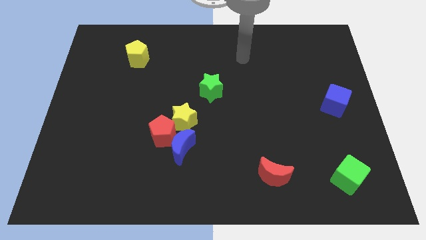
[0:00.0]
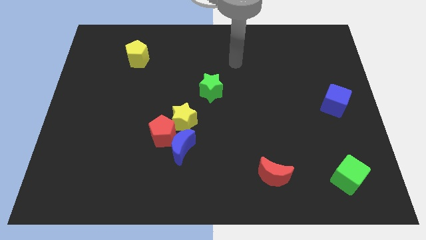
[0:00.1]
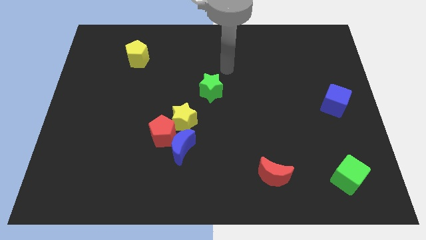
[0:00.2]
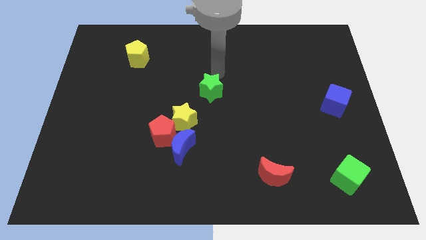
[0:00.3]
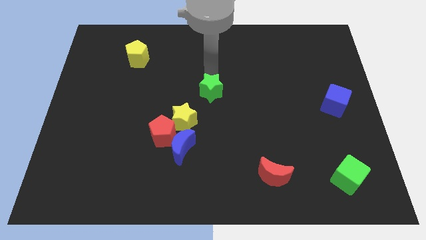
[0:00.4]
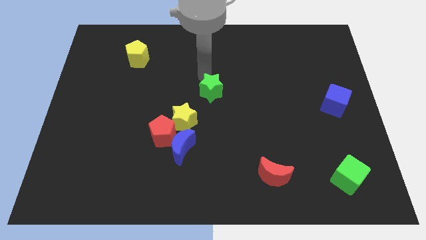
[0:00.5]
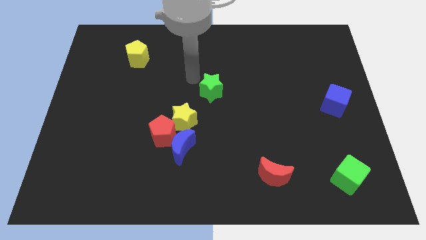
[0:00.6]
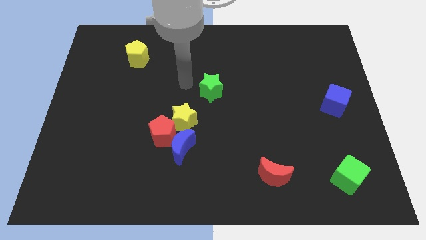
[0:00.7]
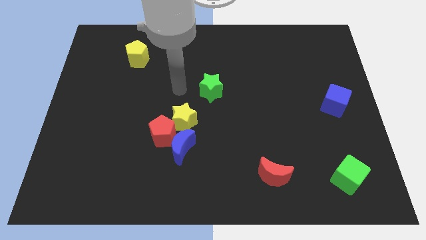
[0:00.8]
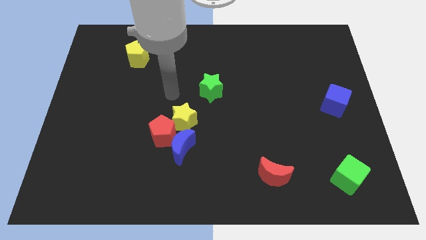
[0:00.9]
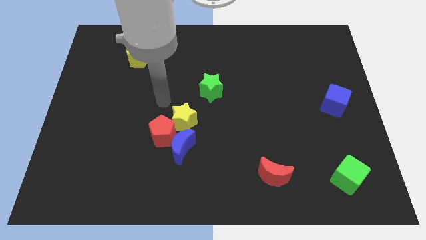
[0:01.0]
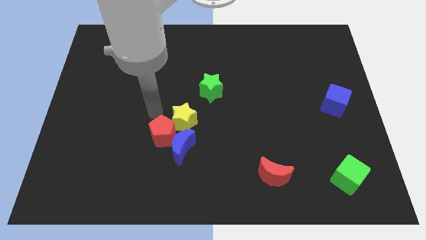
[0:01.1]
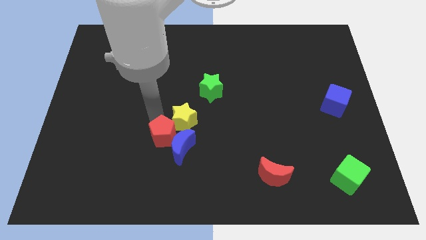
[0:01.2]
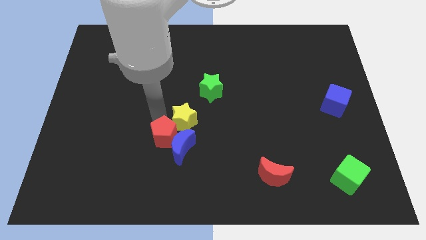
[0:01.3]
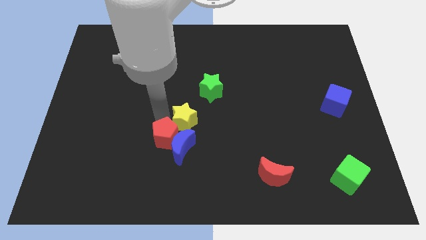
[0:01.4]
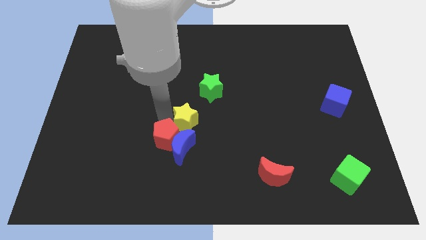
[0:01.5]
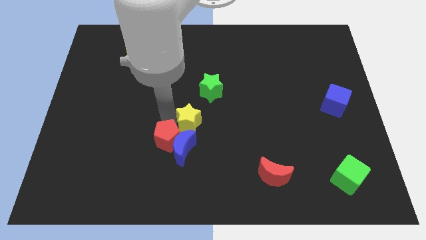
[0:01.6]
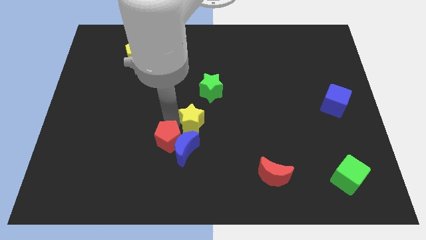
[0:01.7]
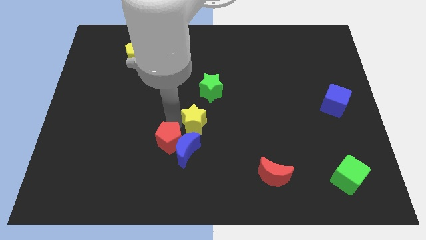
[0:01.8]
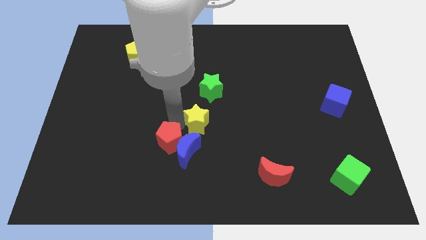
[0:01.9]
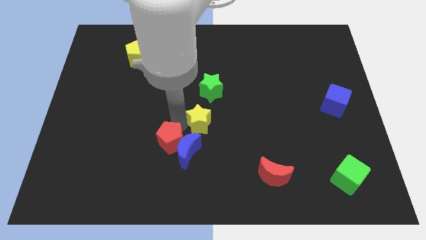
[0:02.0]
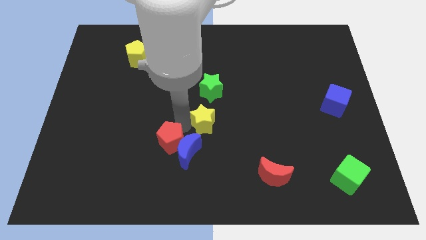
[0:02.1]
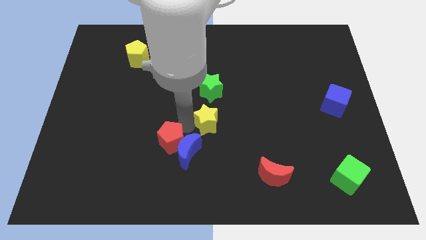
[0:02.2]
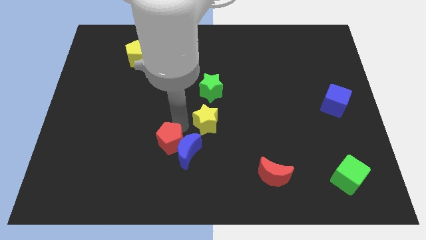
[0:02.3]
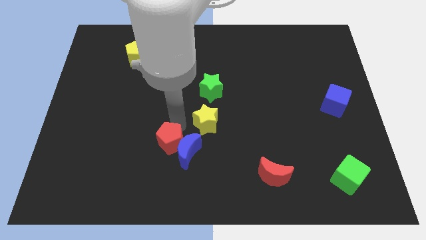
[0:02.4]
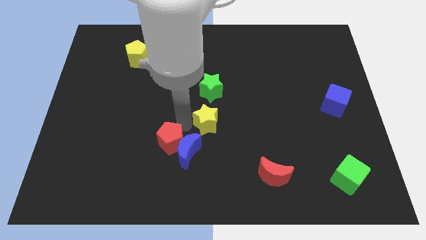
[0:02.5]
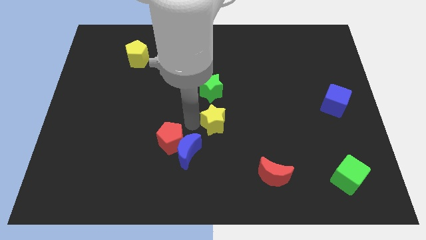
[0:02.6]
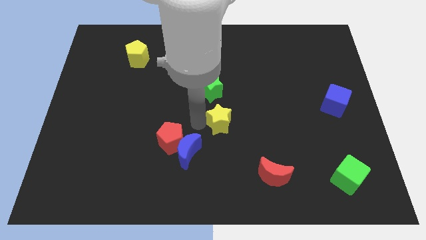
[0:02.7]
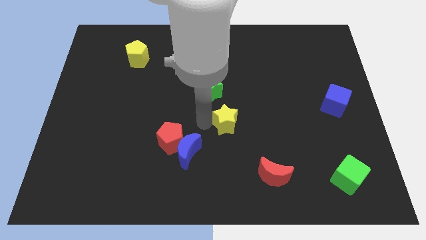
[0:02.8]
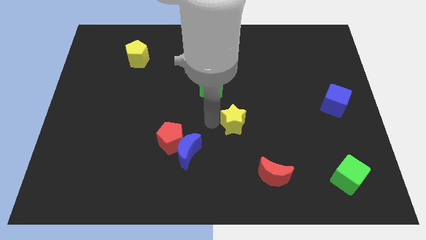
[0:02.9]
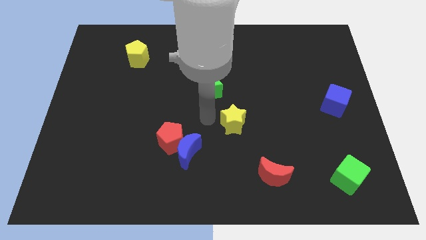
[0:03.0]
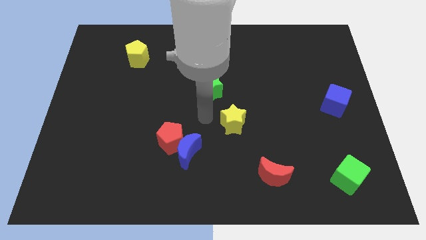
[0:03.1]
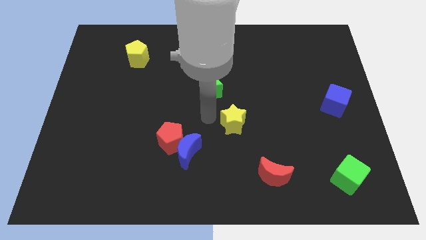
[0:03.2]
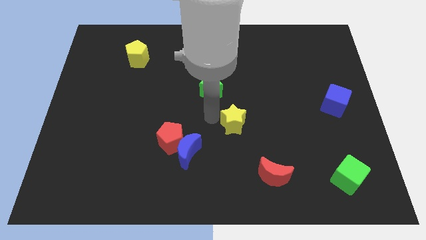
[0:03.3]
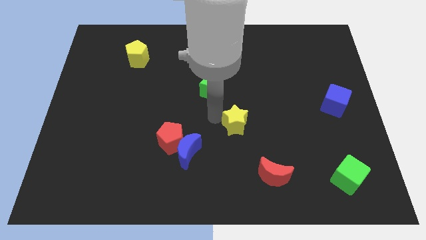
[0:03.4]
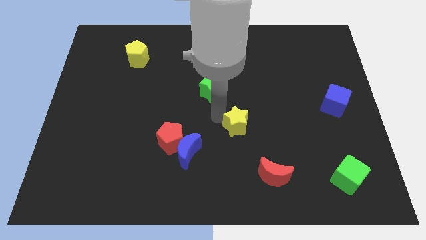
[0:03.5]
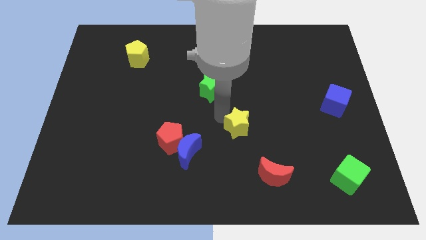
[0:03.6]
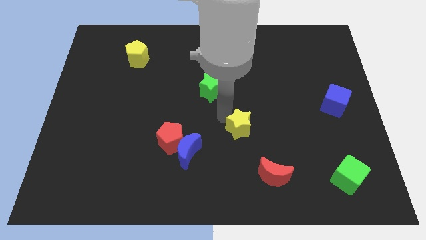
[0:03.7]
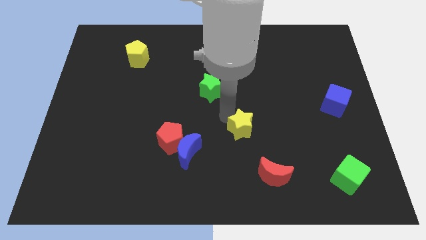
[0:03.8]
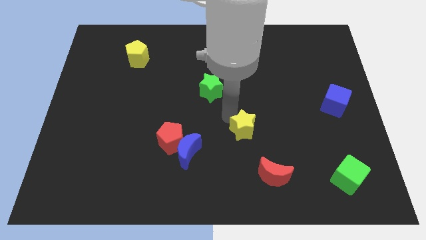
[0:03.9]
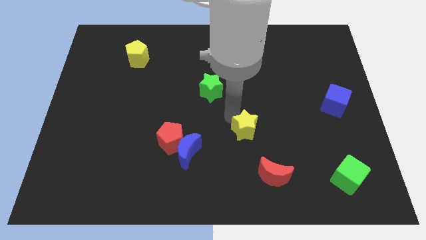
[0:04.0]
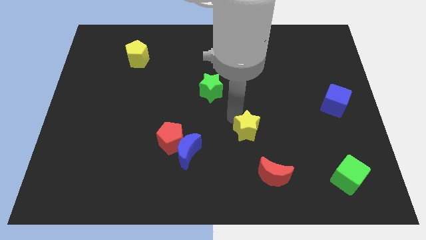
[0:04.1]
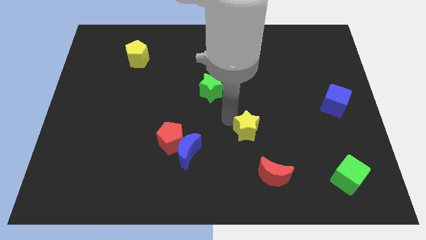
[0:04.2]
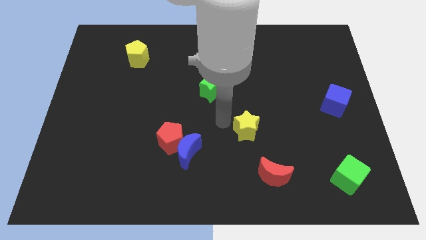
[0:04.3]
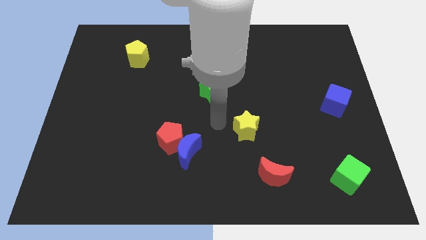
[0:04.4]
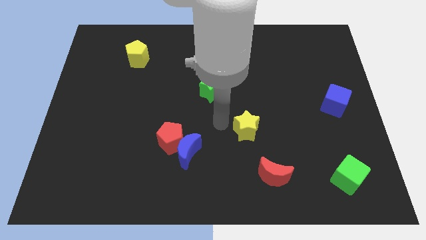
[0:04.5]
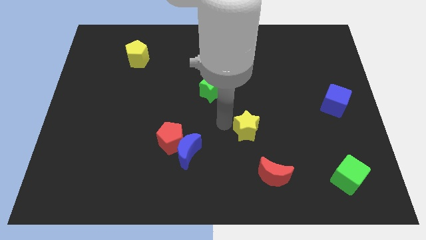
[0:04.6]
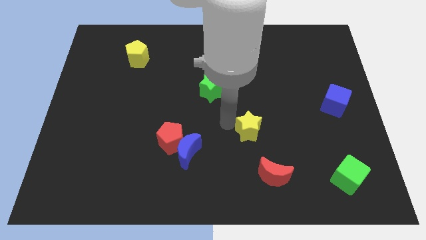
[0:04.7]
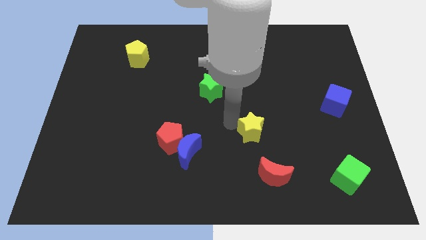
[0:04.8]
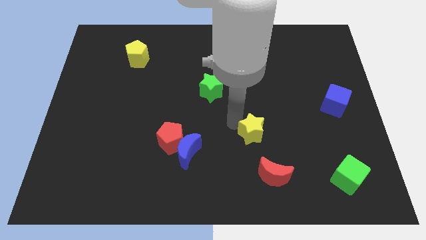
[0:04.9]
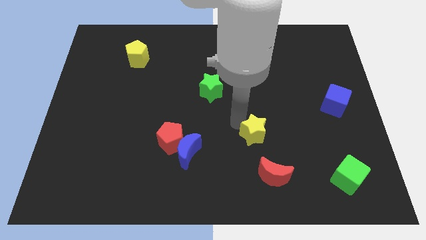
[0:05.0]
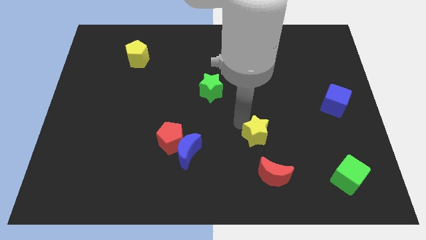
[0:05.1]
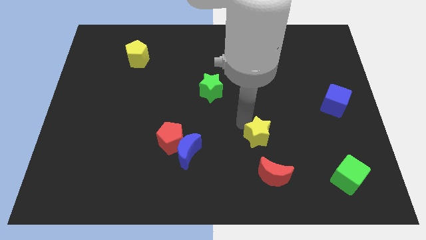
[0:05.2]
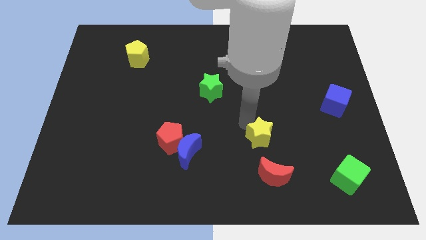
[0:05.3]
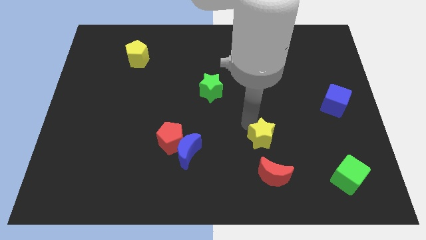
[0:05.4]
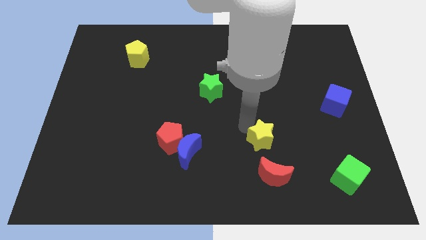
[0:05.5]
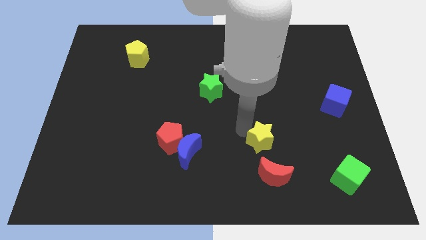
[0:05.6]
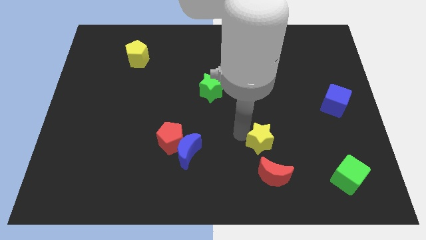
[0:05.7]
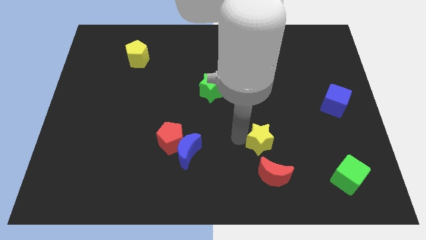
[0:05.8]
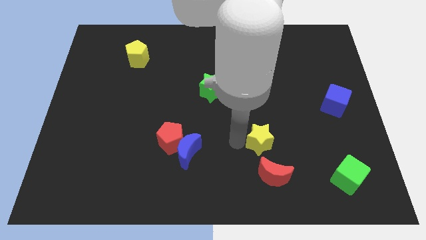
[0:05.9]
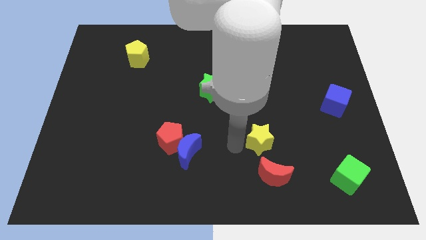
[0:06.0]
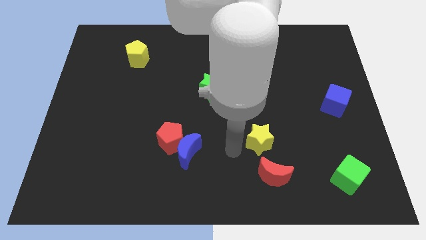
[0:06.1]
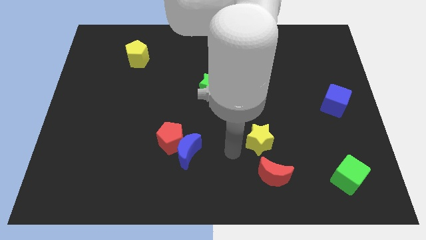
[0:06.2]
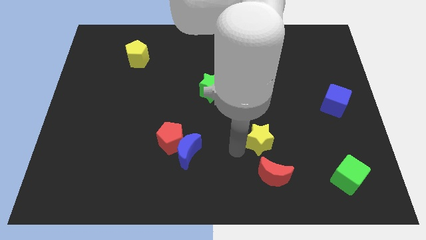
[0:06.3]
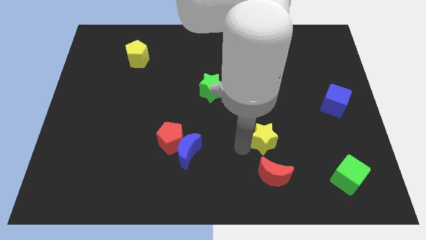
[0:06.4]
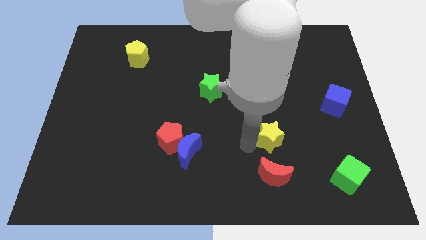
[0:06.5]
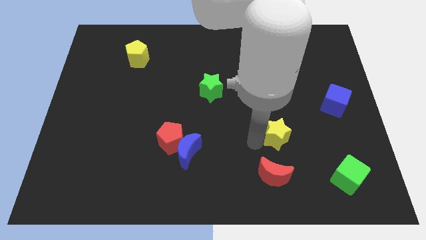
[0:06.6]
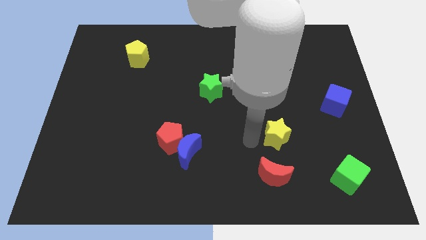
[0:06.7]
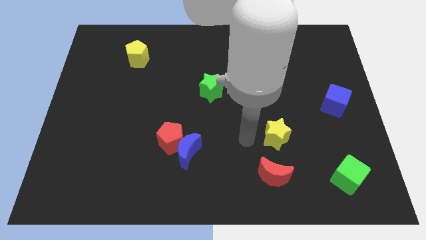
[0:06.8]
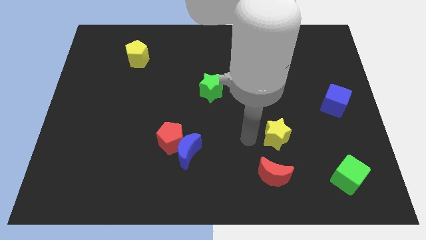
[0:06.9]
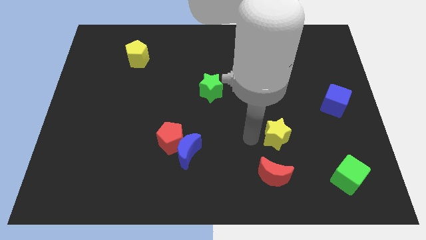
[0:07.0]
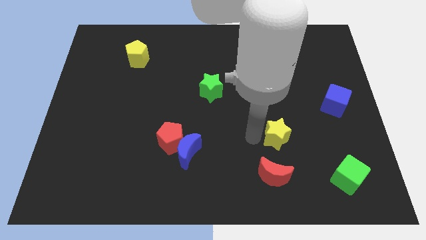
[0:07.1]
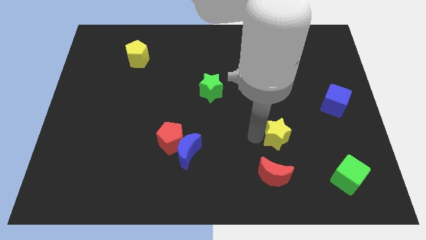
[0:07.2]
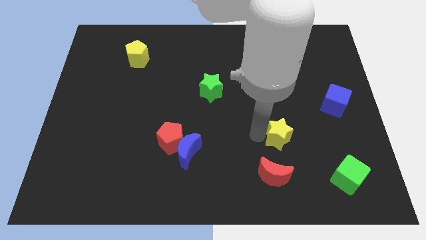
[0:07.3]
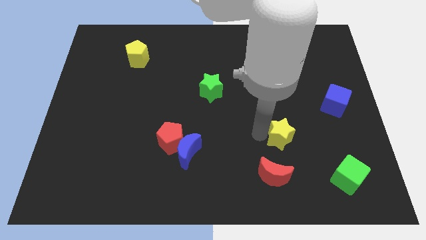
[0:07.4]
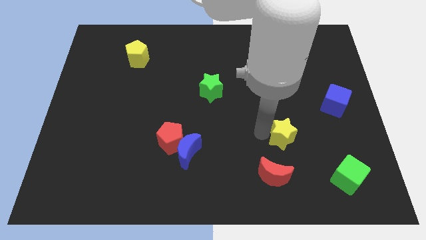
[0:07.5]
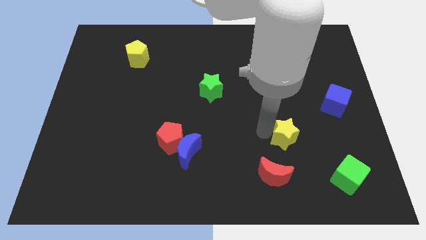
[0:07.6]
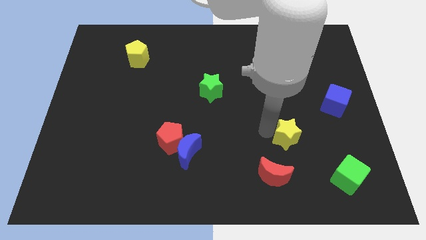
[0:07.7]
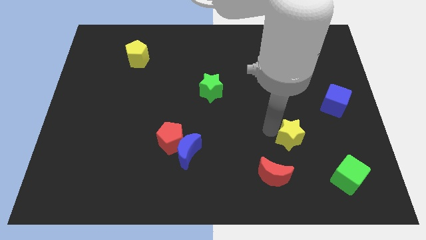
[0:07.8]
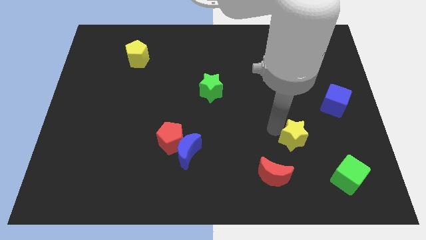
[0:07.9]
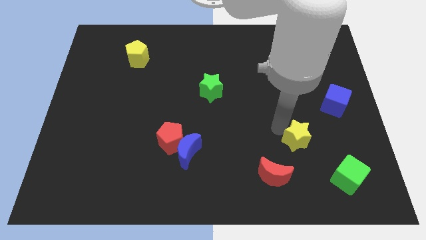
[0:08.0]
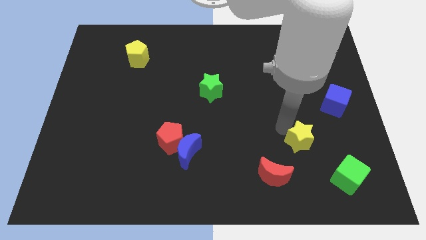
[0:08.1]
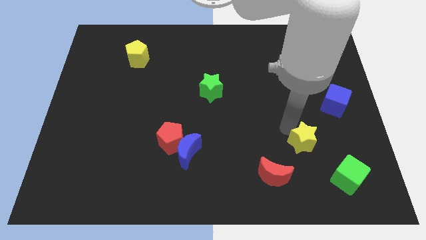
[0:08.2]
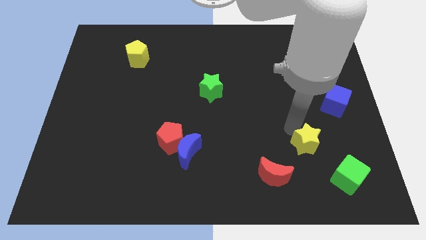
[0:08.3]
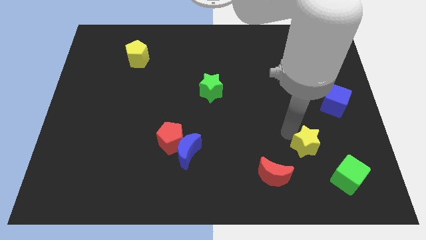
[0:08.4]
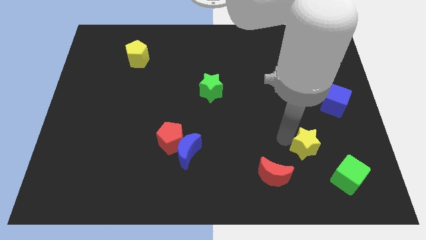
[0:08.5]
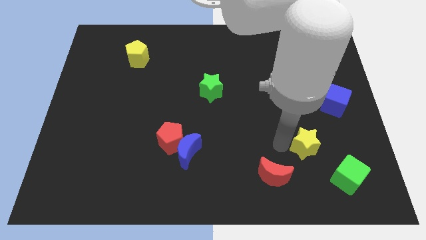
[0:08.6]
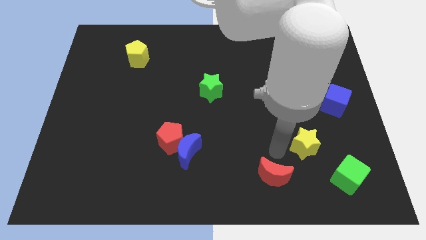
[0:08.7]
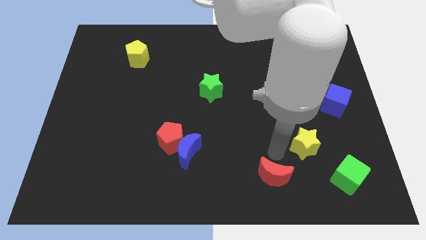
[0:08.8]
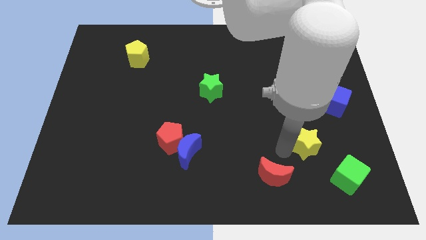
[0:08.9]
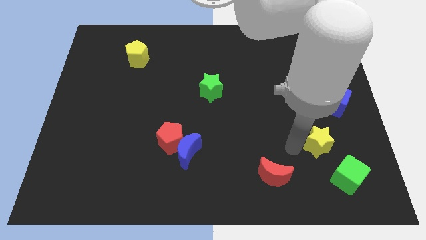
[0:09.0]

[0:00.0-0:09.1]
put the yellow star to the top of the green cube
